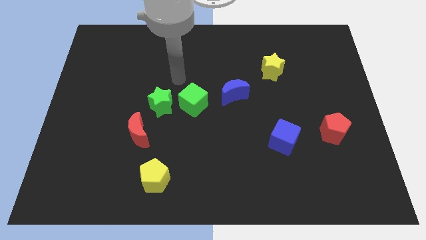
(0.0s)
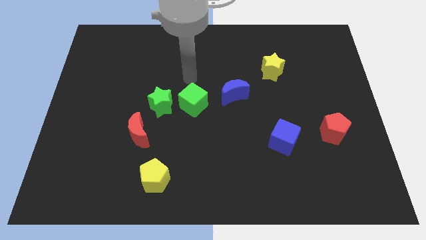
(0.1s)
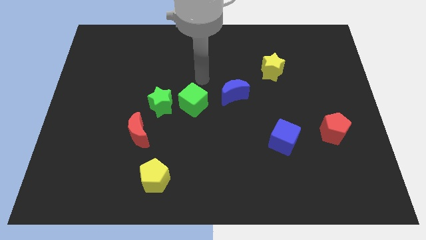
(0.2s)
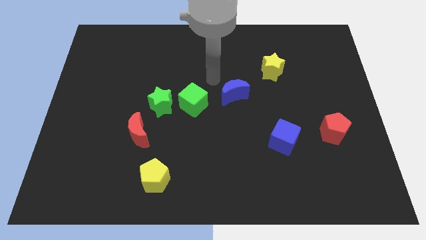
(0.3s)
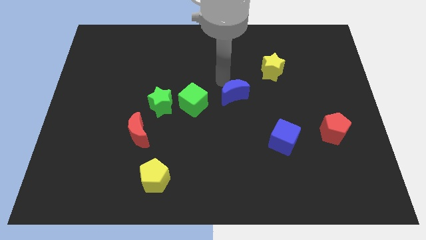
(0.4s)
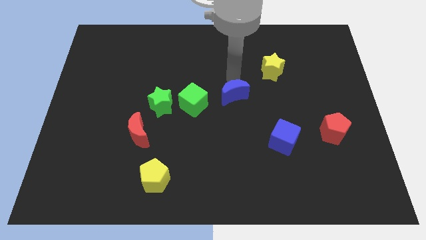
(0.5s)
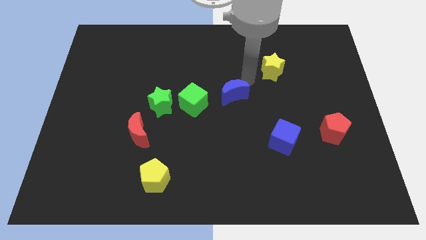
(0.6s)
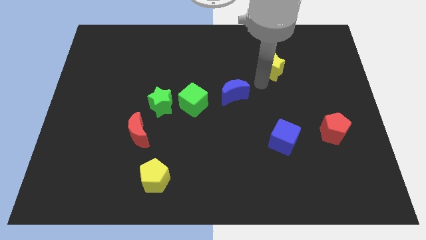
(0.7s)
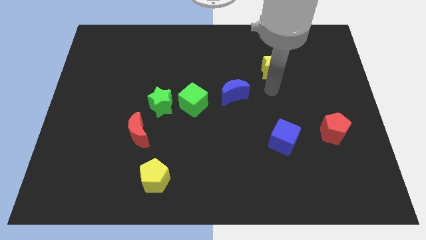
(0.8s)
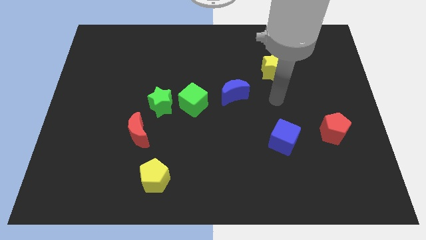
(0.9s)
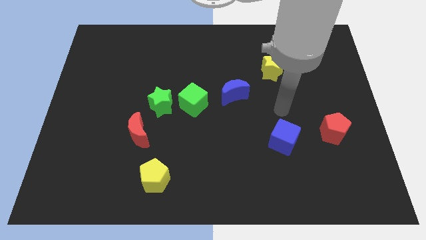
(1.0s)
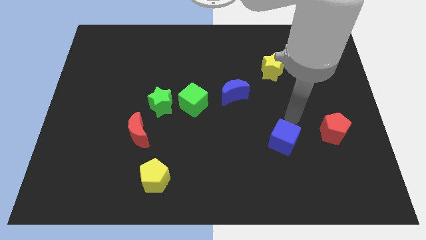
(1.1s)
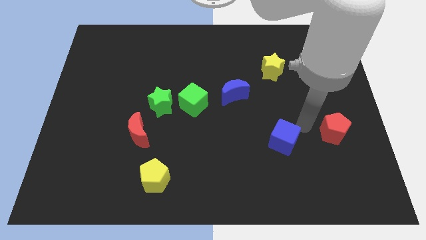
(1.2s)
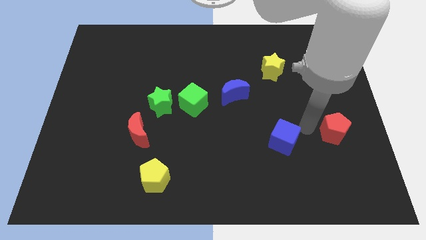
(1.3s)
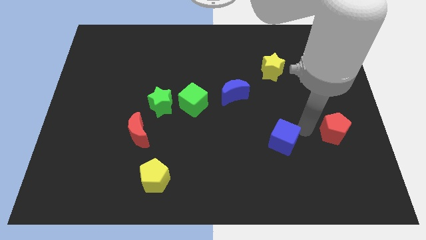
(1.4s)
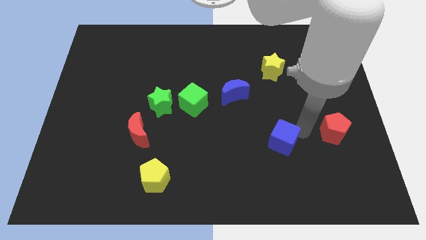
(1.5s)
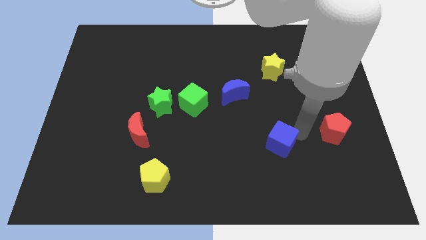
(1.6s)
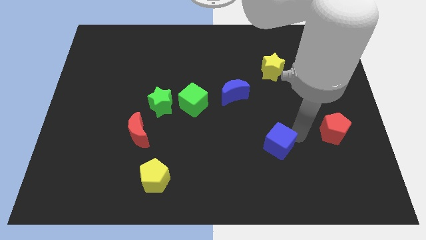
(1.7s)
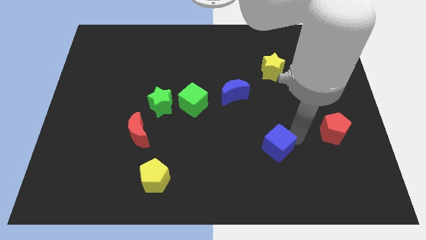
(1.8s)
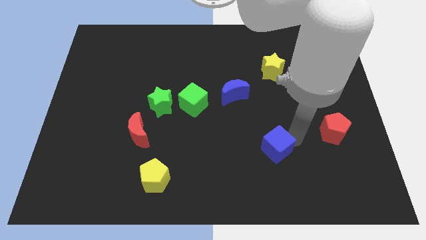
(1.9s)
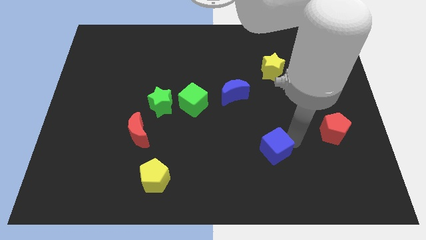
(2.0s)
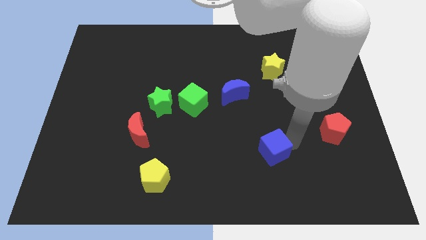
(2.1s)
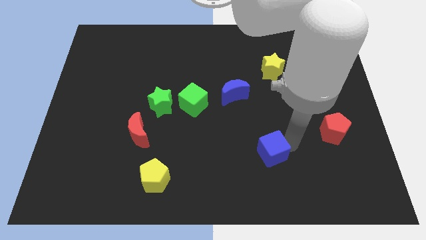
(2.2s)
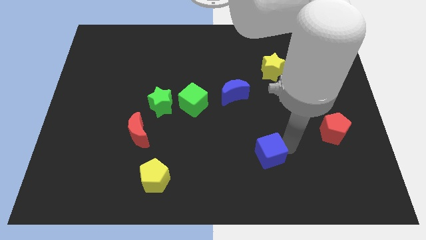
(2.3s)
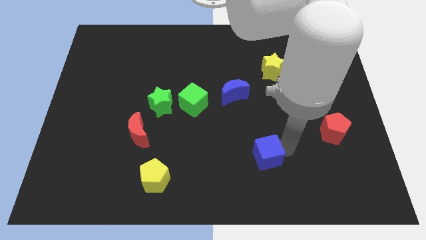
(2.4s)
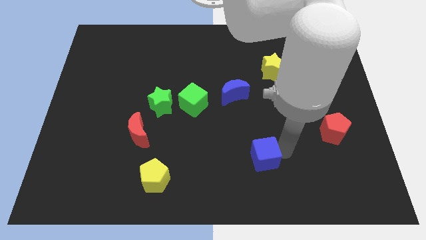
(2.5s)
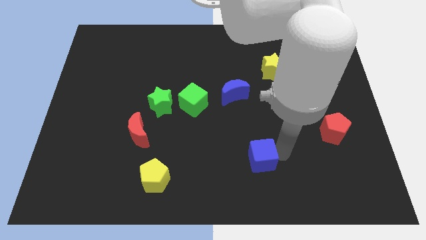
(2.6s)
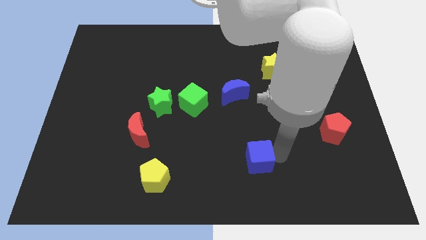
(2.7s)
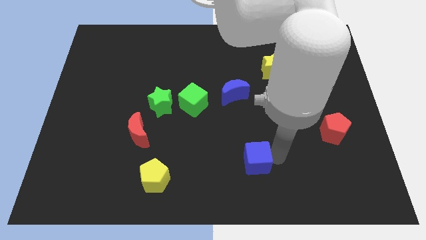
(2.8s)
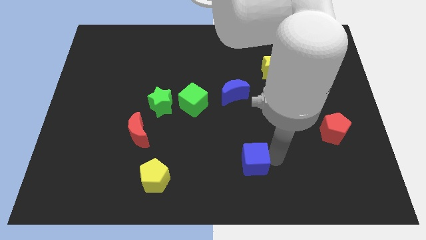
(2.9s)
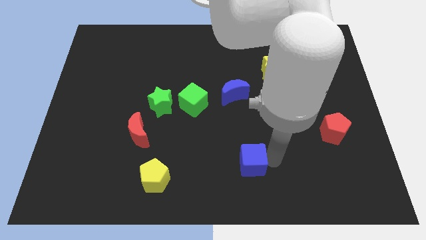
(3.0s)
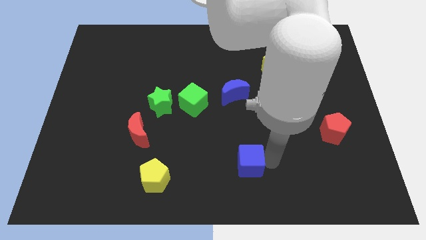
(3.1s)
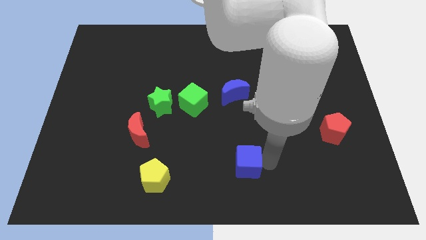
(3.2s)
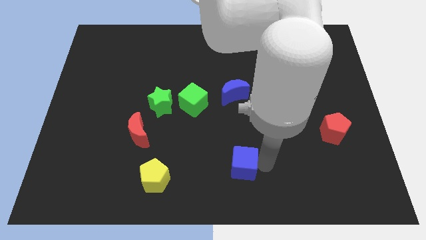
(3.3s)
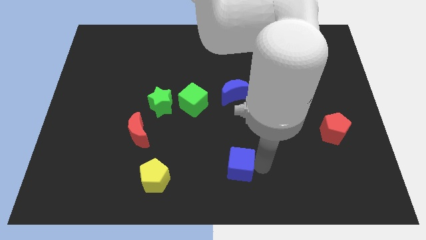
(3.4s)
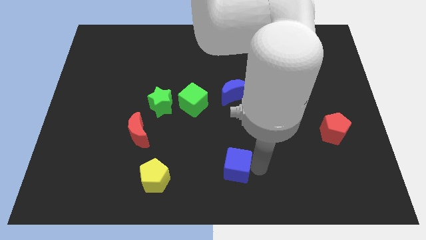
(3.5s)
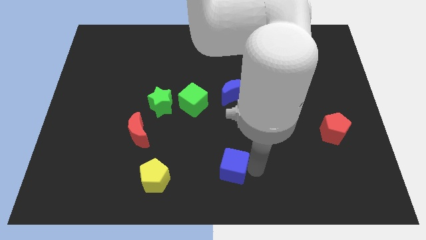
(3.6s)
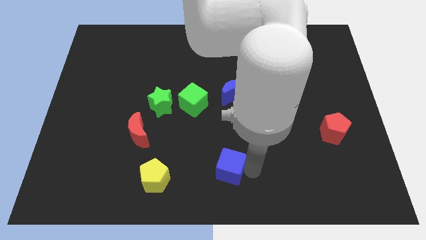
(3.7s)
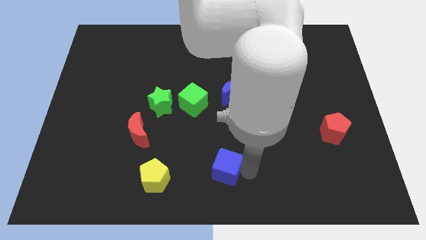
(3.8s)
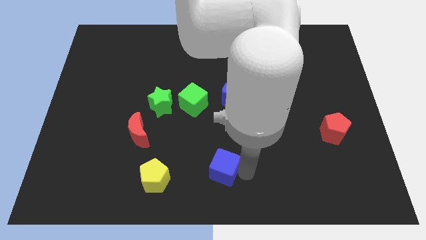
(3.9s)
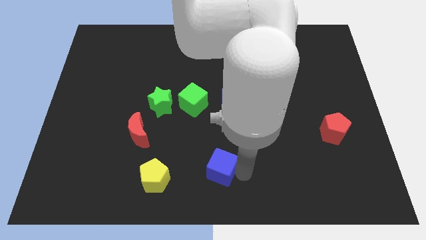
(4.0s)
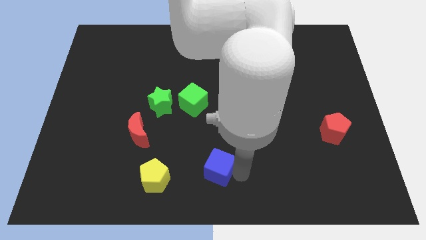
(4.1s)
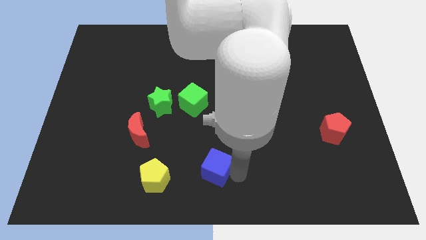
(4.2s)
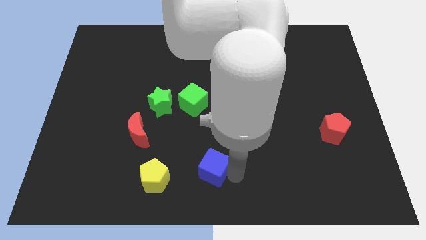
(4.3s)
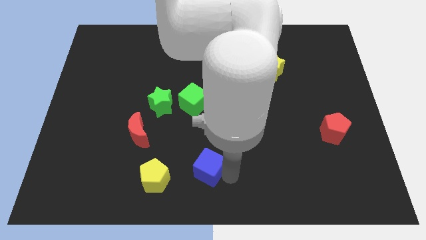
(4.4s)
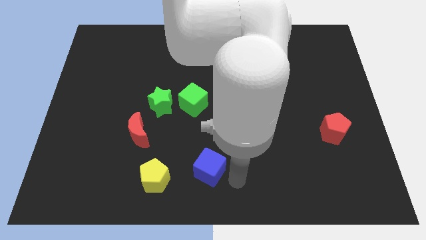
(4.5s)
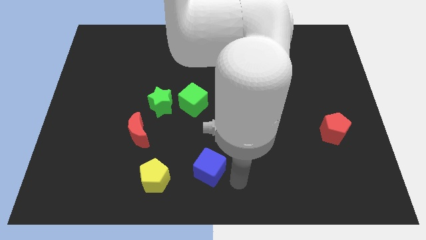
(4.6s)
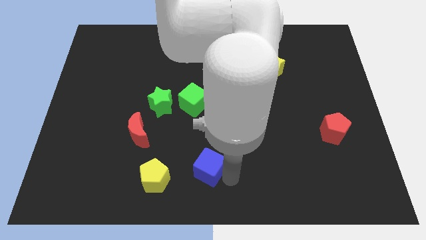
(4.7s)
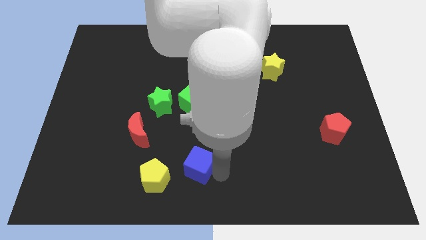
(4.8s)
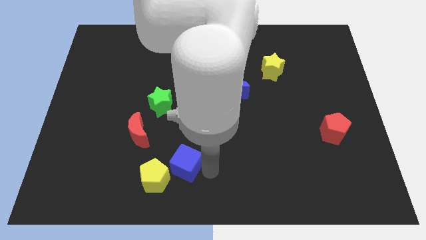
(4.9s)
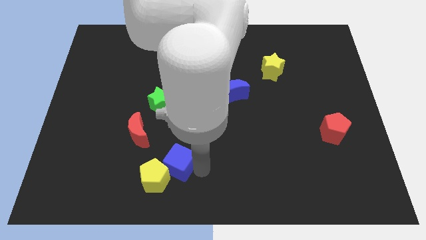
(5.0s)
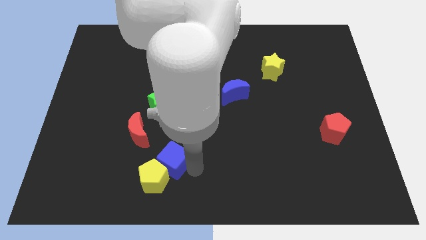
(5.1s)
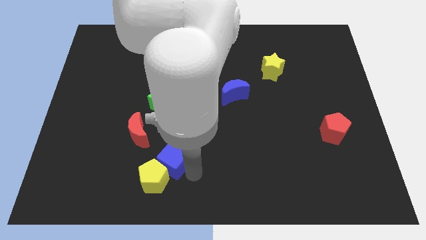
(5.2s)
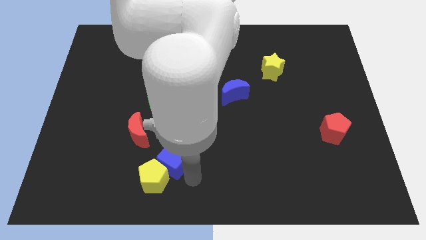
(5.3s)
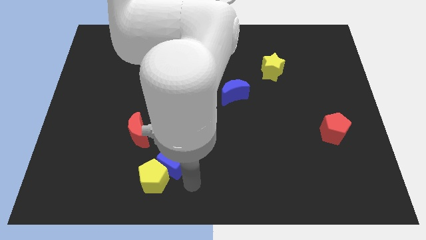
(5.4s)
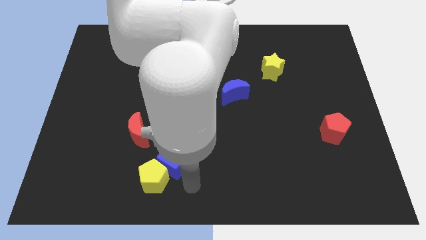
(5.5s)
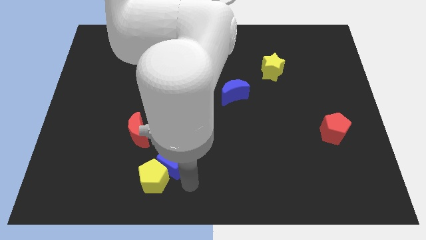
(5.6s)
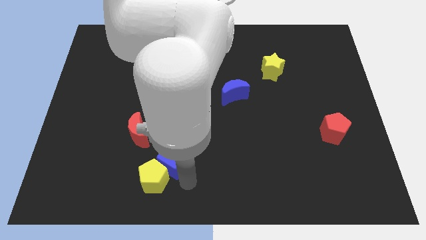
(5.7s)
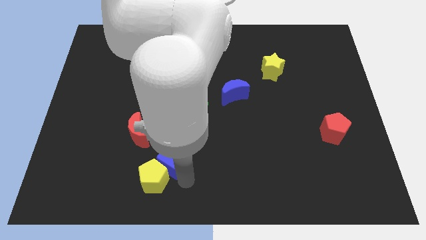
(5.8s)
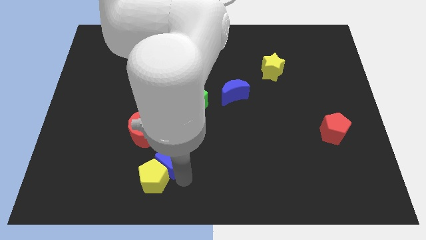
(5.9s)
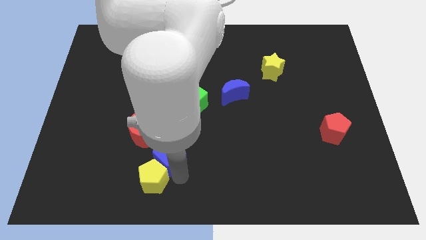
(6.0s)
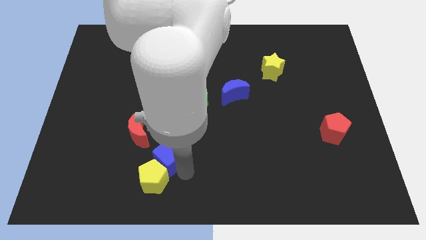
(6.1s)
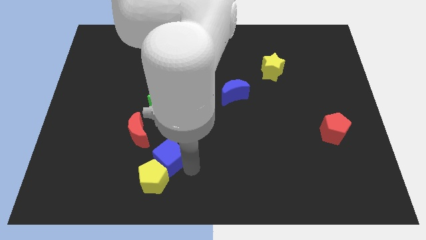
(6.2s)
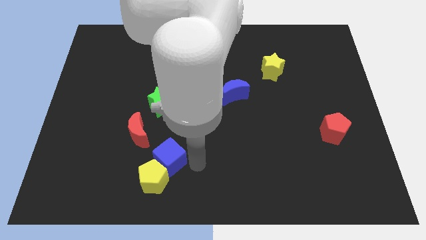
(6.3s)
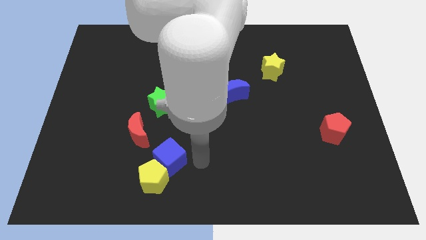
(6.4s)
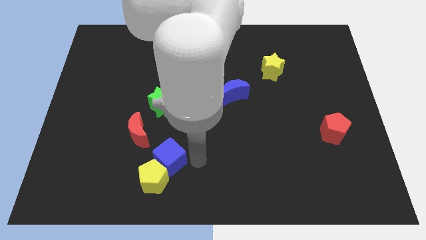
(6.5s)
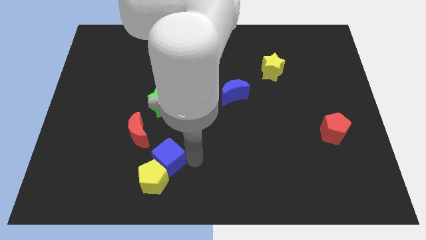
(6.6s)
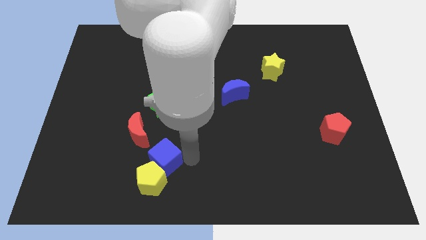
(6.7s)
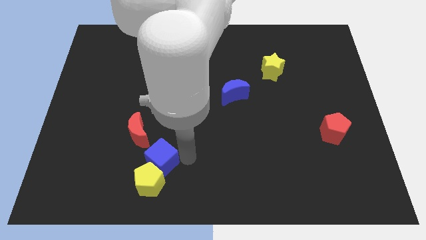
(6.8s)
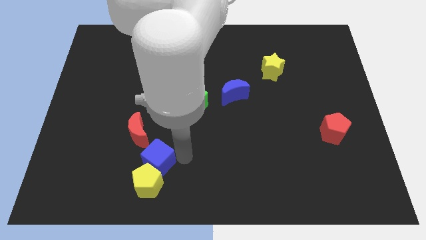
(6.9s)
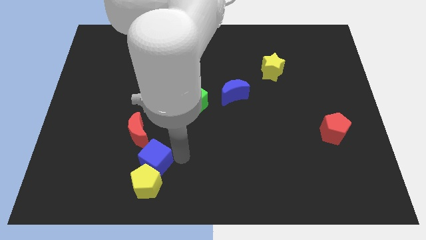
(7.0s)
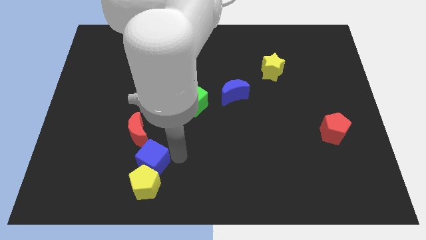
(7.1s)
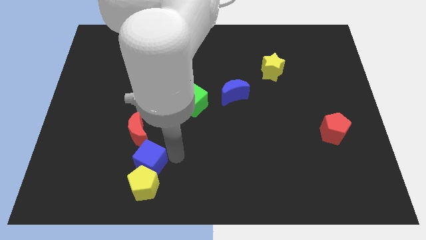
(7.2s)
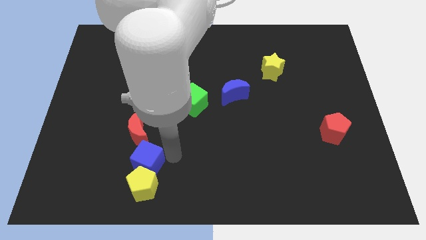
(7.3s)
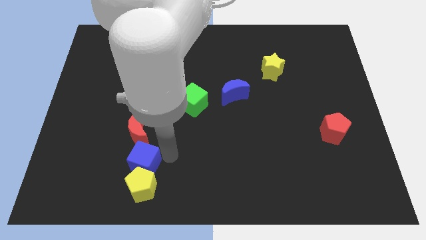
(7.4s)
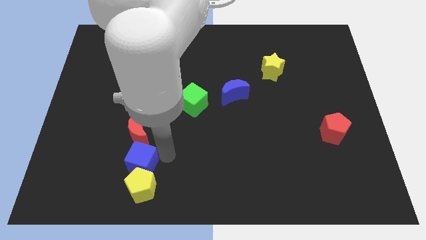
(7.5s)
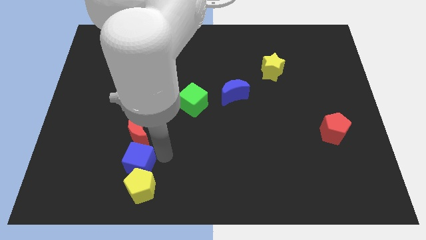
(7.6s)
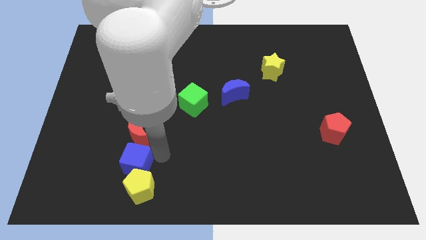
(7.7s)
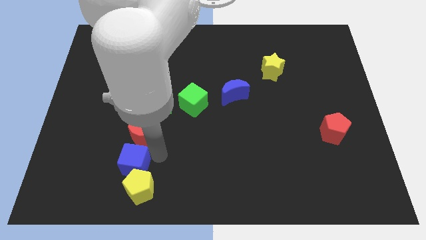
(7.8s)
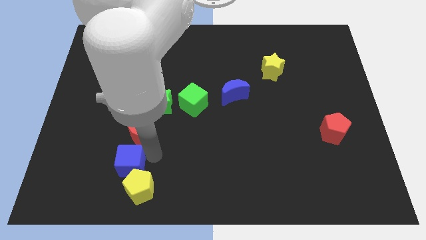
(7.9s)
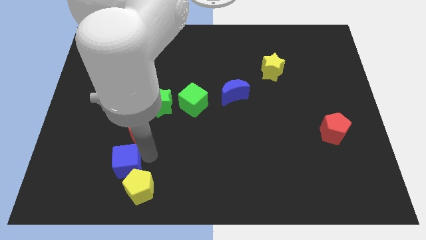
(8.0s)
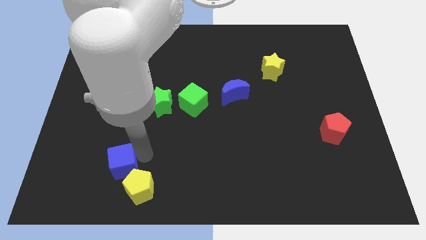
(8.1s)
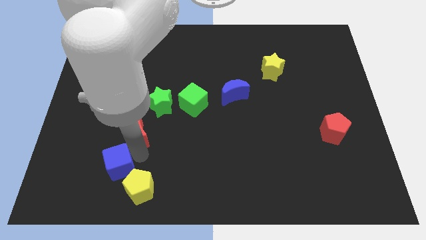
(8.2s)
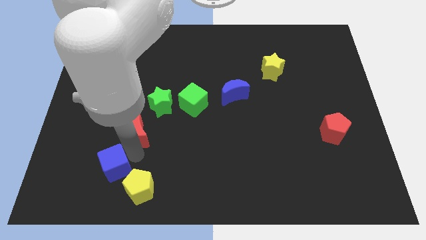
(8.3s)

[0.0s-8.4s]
put the blue cube just left of the yellow pentagon
